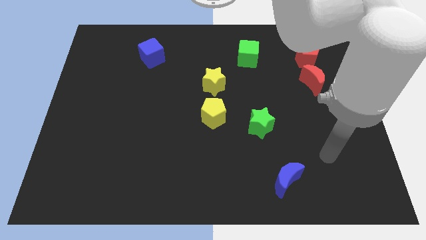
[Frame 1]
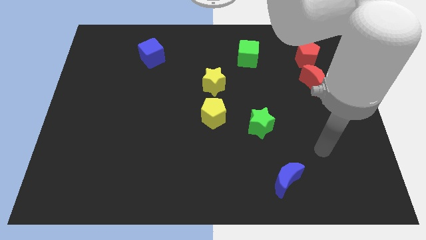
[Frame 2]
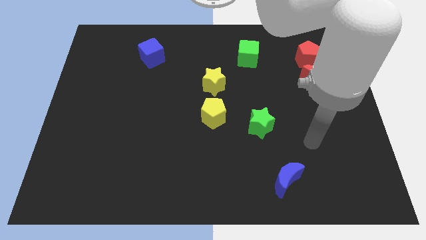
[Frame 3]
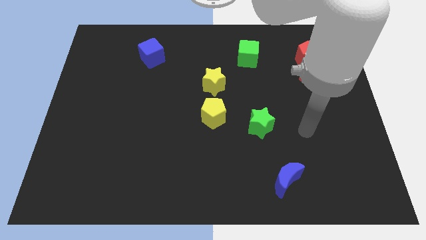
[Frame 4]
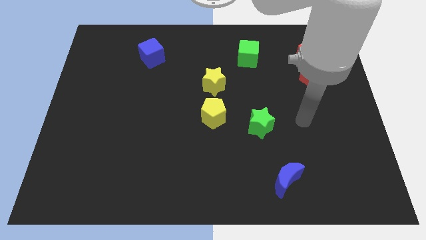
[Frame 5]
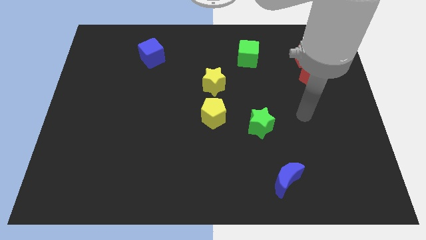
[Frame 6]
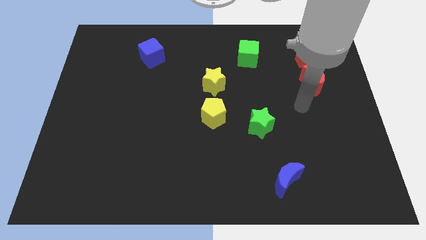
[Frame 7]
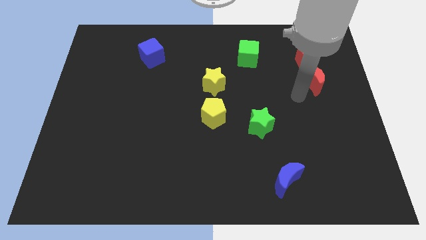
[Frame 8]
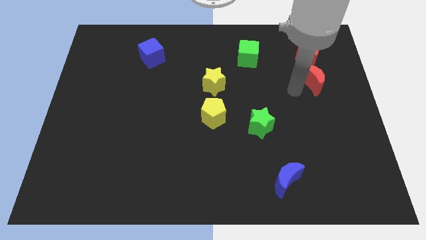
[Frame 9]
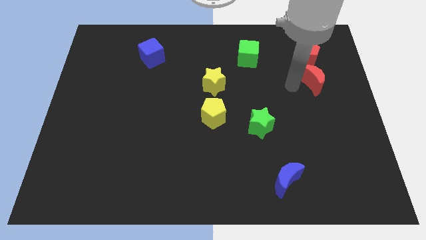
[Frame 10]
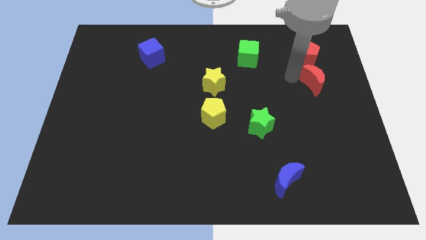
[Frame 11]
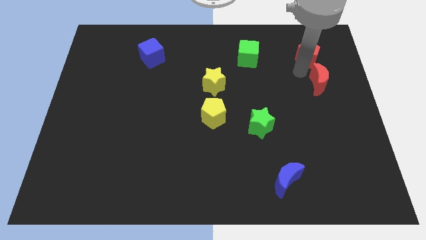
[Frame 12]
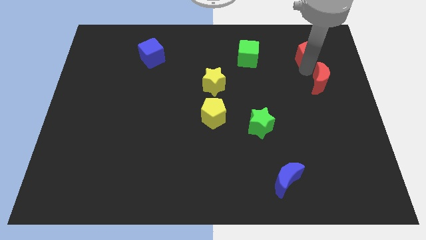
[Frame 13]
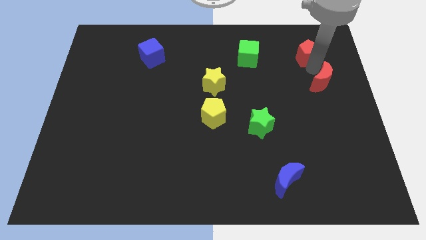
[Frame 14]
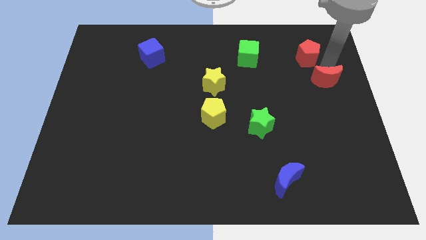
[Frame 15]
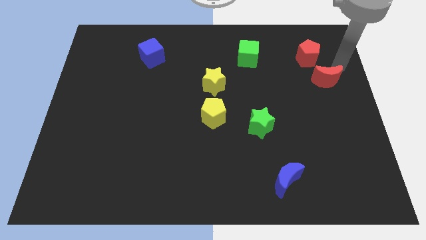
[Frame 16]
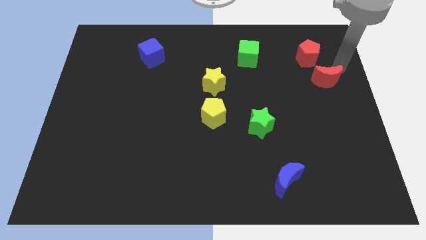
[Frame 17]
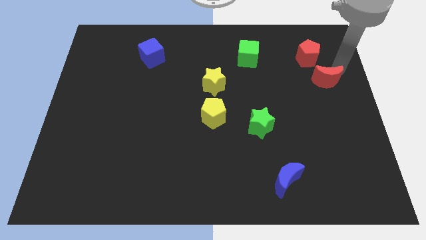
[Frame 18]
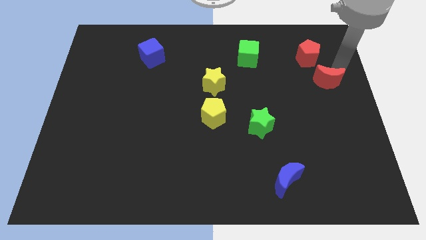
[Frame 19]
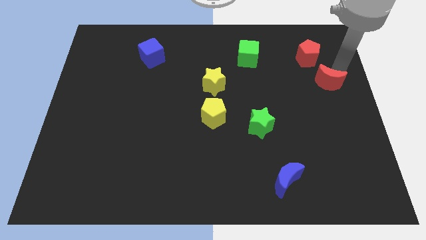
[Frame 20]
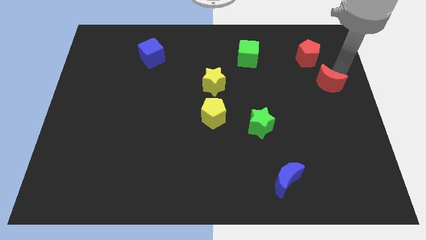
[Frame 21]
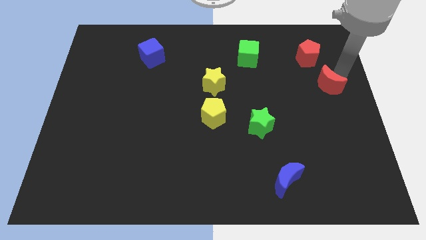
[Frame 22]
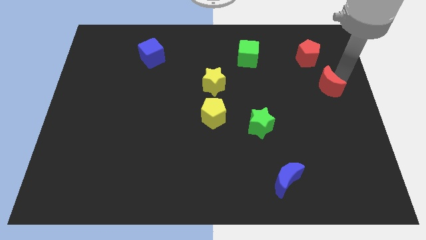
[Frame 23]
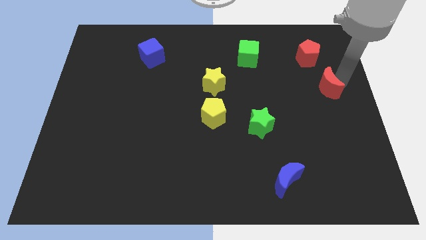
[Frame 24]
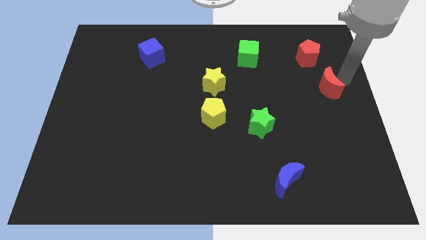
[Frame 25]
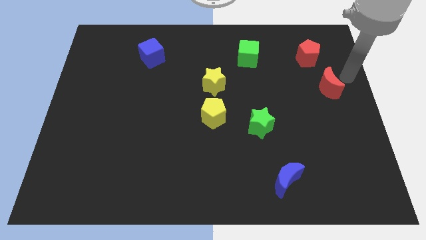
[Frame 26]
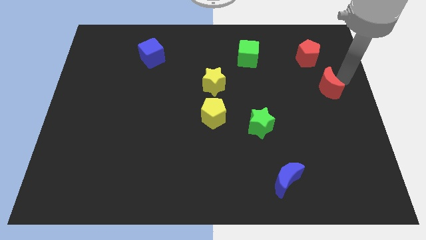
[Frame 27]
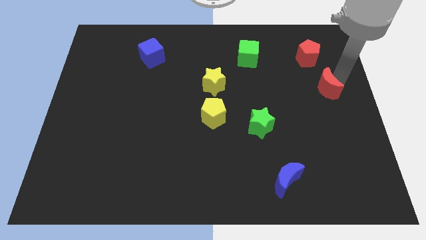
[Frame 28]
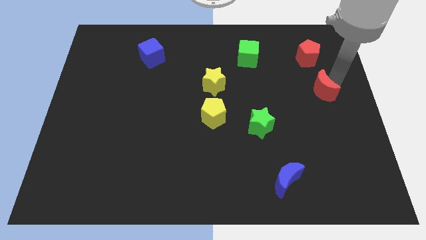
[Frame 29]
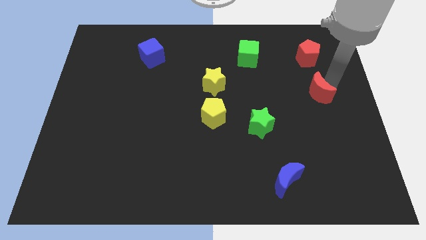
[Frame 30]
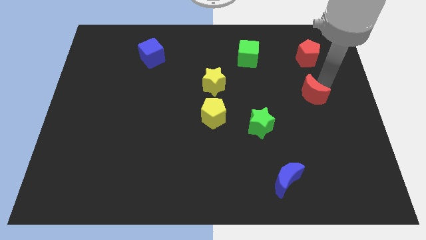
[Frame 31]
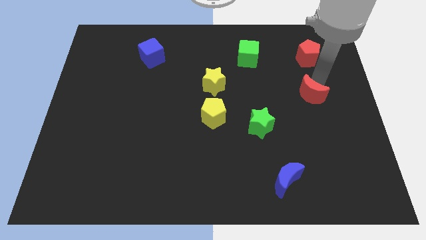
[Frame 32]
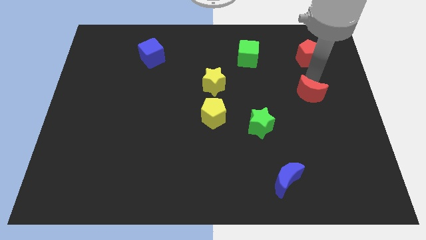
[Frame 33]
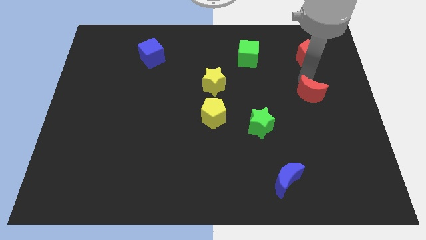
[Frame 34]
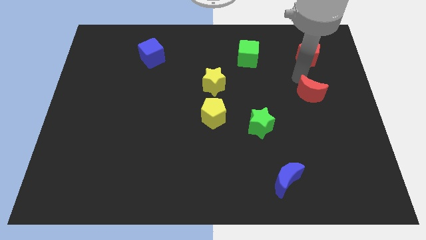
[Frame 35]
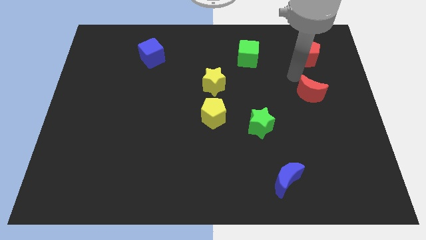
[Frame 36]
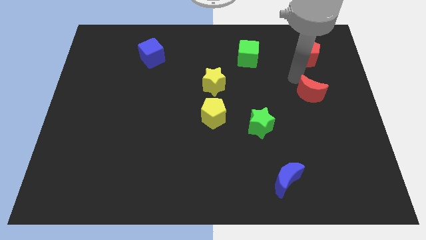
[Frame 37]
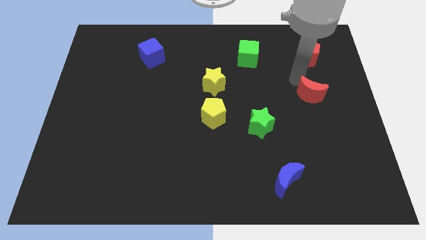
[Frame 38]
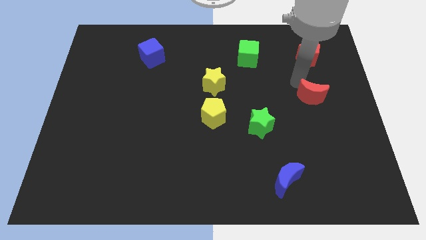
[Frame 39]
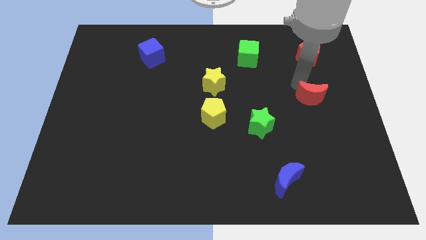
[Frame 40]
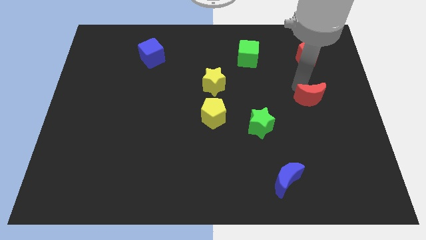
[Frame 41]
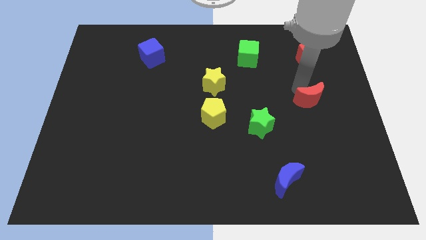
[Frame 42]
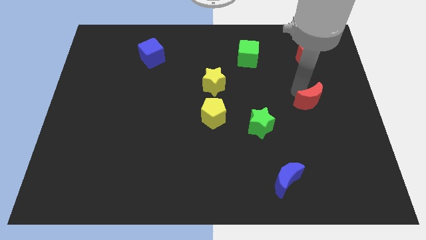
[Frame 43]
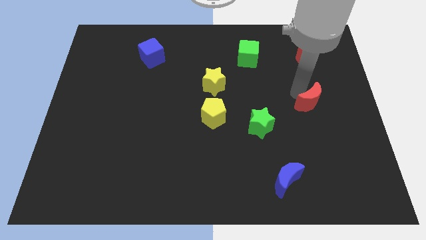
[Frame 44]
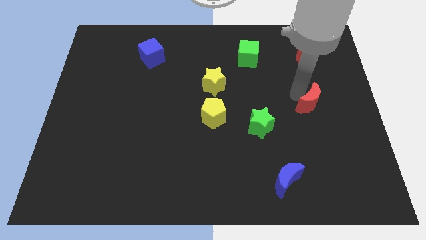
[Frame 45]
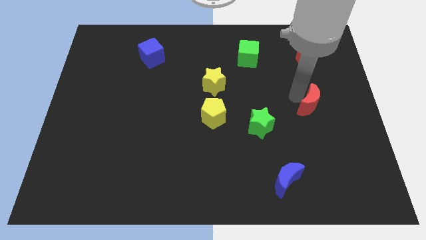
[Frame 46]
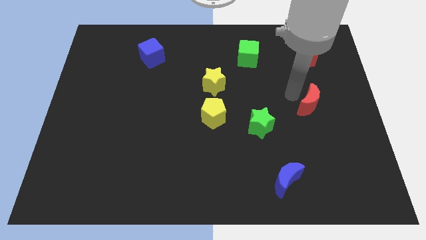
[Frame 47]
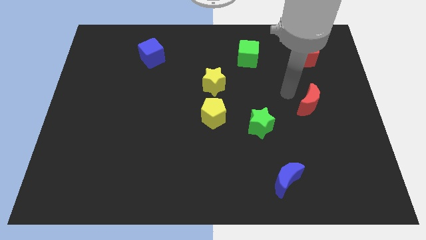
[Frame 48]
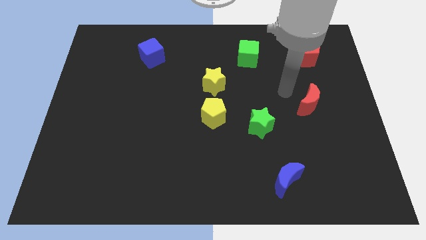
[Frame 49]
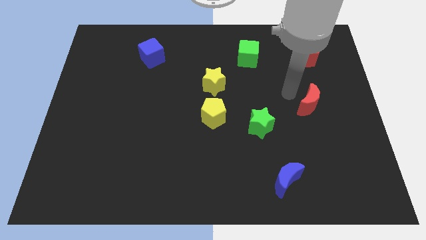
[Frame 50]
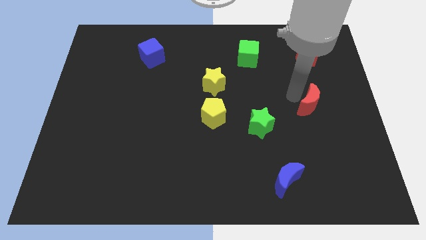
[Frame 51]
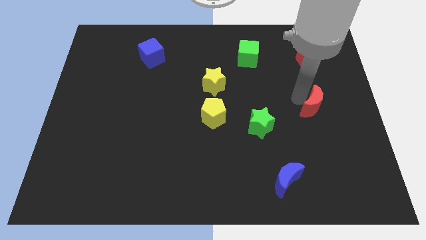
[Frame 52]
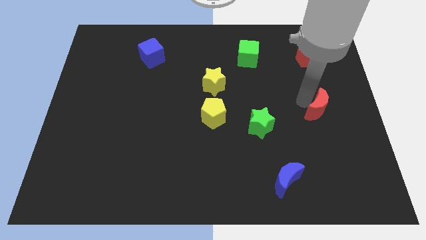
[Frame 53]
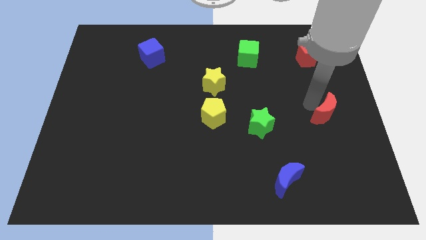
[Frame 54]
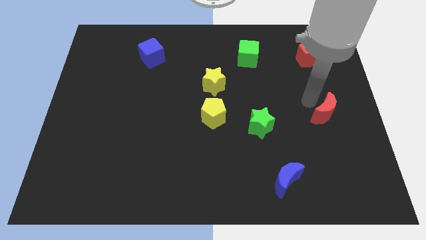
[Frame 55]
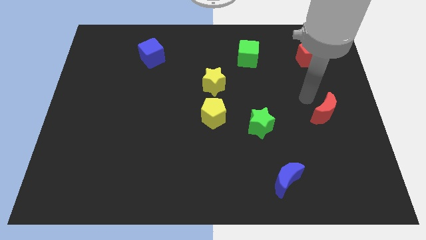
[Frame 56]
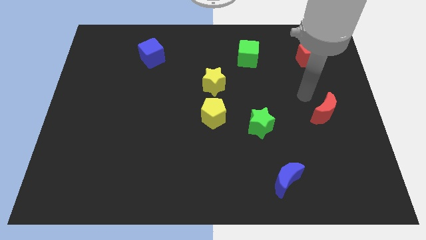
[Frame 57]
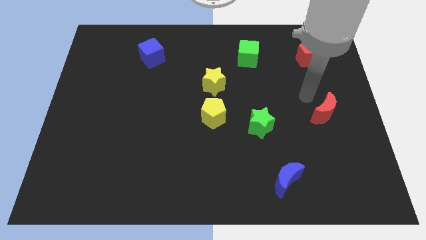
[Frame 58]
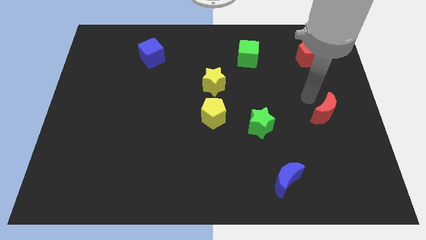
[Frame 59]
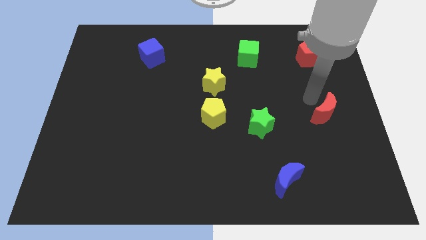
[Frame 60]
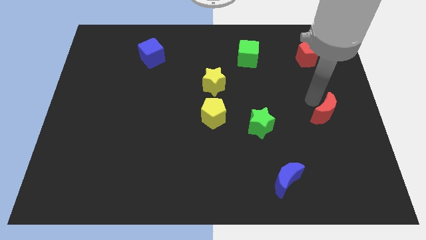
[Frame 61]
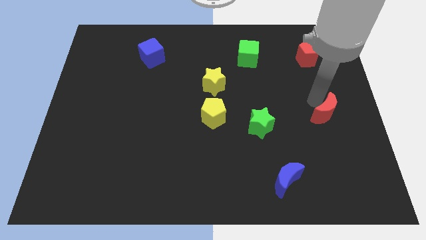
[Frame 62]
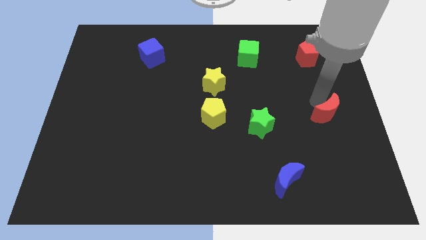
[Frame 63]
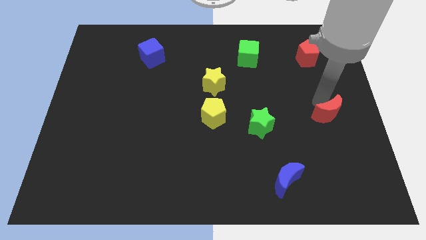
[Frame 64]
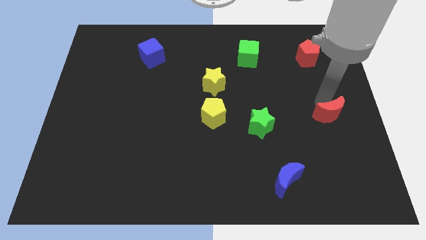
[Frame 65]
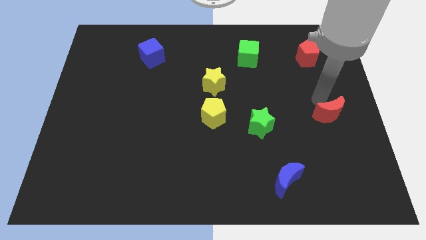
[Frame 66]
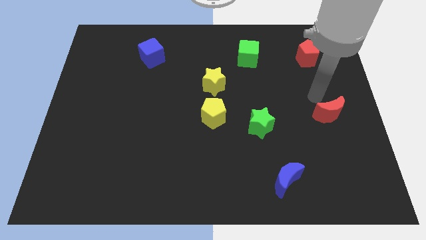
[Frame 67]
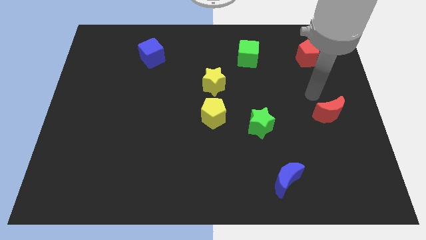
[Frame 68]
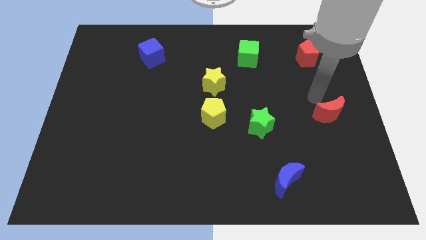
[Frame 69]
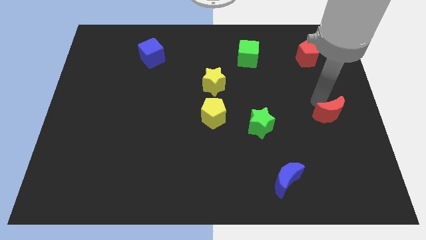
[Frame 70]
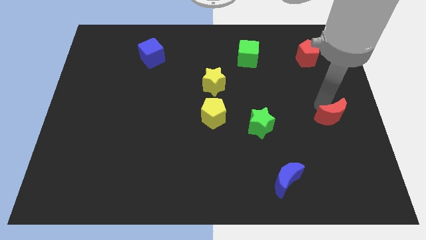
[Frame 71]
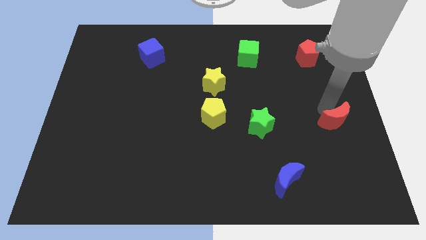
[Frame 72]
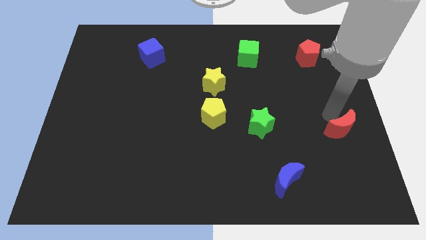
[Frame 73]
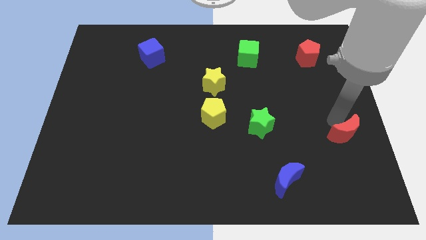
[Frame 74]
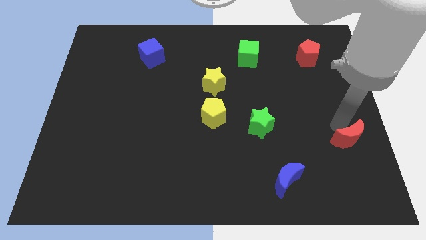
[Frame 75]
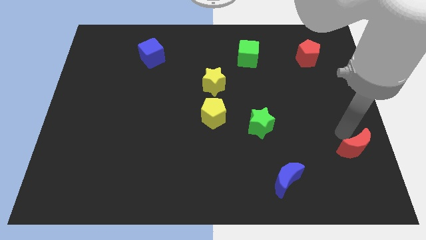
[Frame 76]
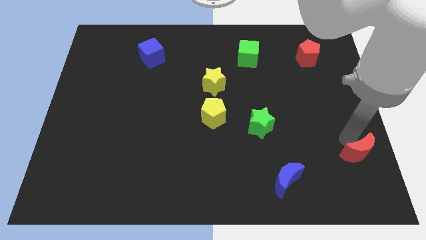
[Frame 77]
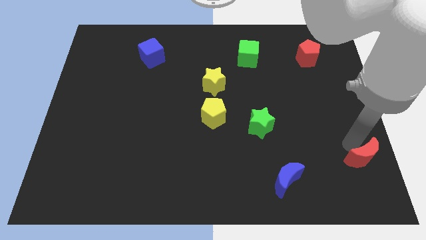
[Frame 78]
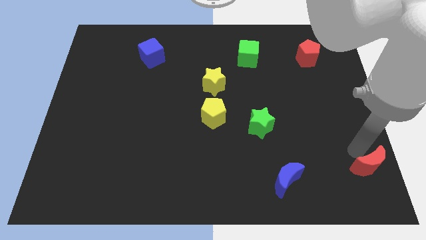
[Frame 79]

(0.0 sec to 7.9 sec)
put the red moon to the bottom right
